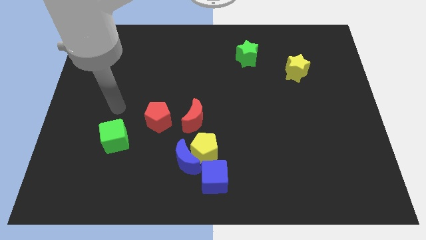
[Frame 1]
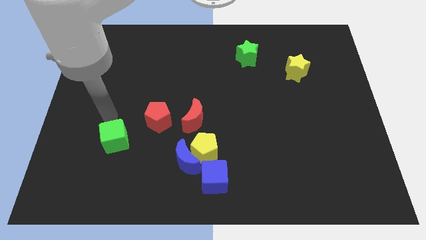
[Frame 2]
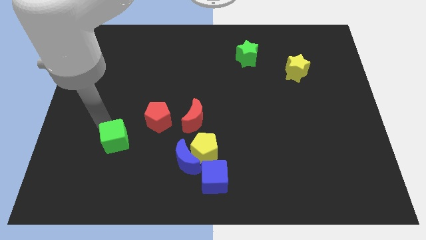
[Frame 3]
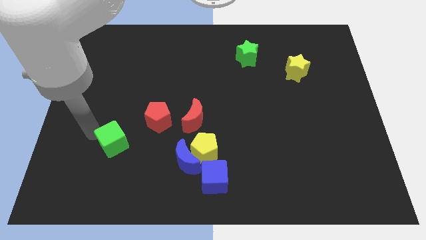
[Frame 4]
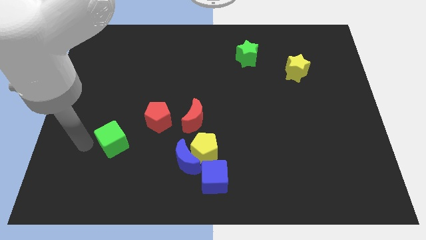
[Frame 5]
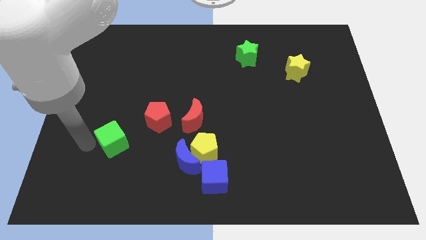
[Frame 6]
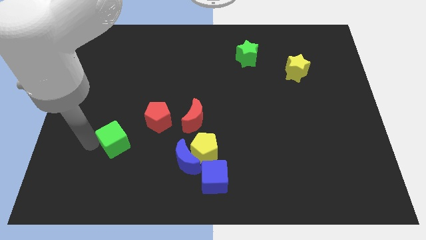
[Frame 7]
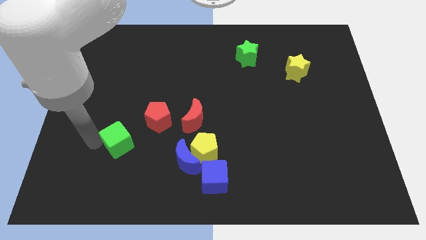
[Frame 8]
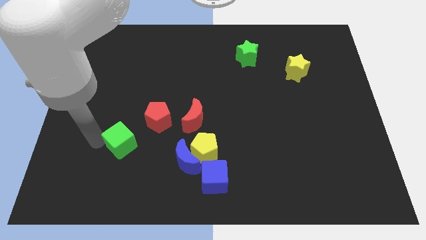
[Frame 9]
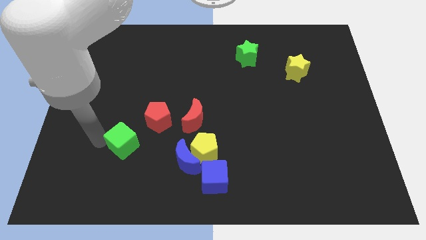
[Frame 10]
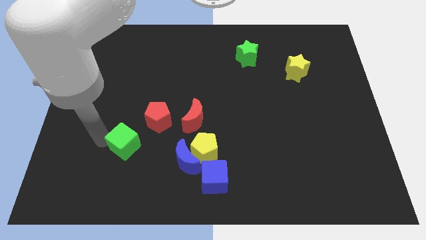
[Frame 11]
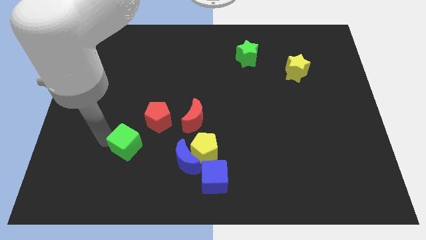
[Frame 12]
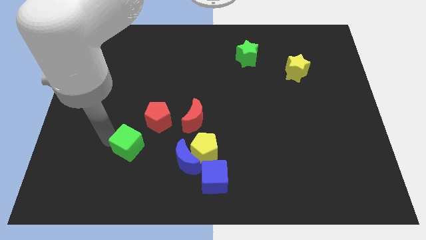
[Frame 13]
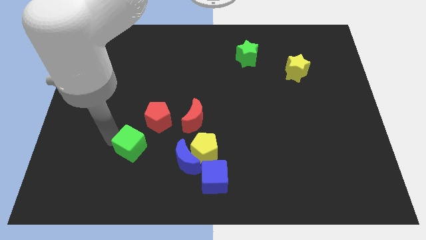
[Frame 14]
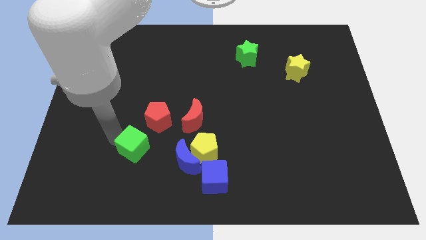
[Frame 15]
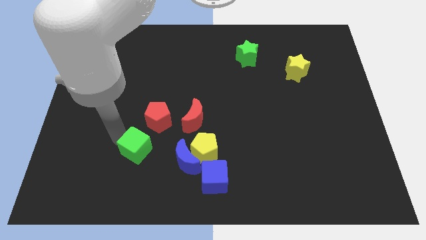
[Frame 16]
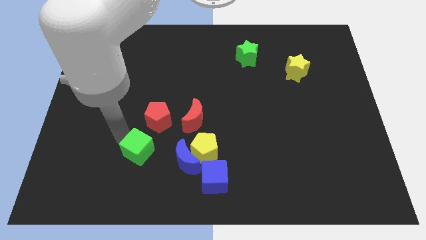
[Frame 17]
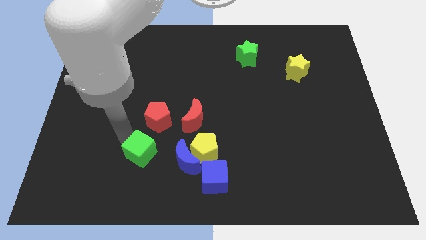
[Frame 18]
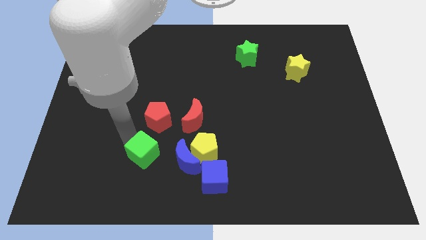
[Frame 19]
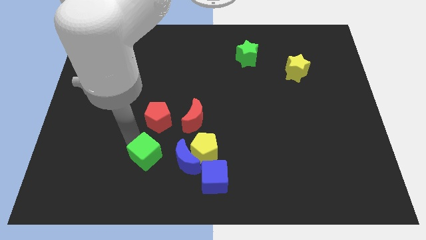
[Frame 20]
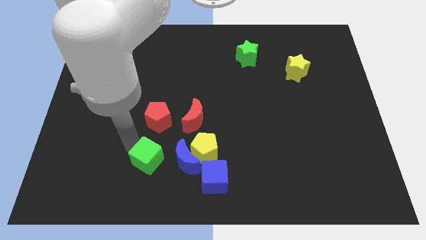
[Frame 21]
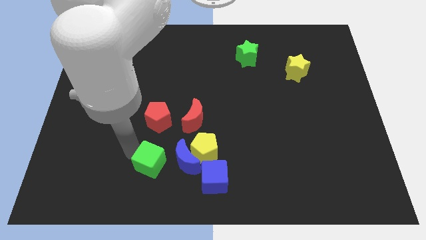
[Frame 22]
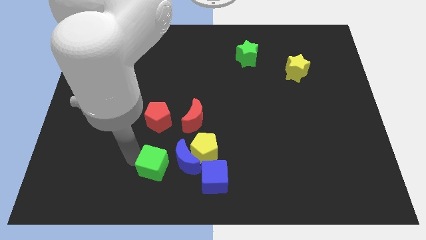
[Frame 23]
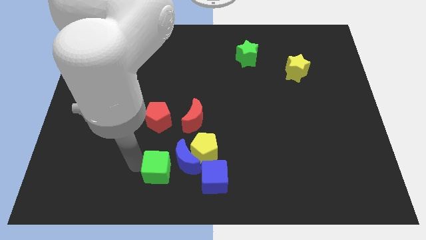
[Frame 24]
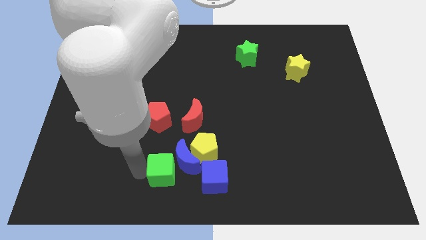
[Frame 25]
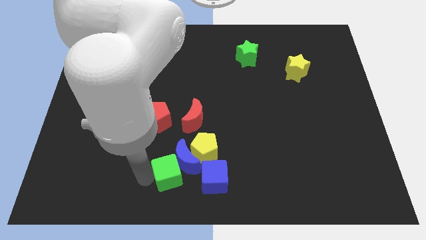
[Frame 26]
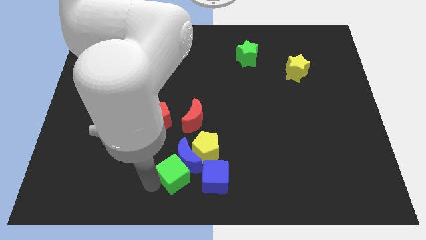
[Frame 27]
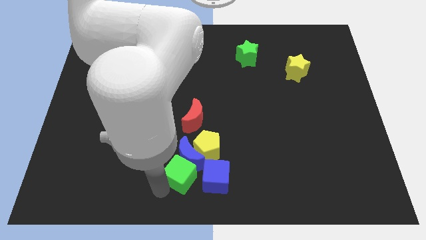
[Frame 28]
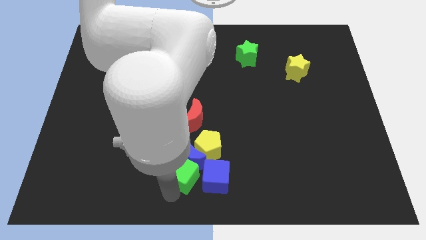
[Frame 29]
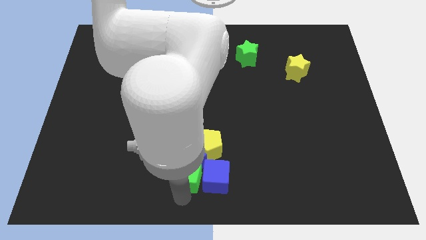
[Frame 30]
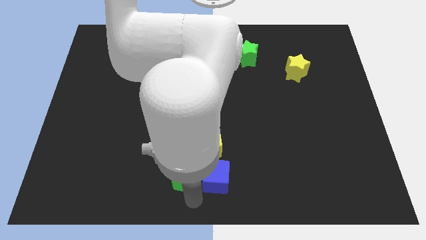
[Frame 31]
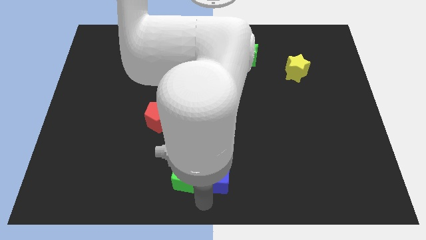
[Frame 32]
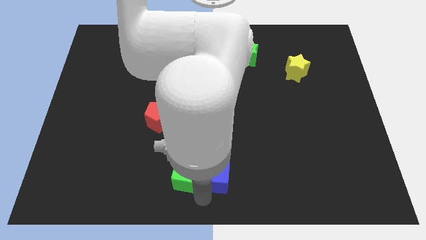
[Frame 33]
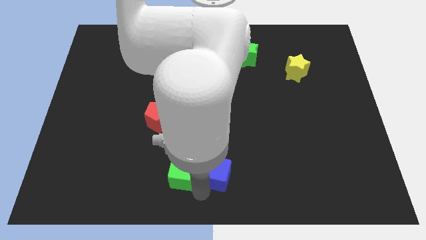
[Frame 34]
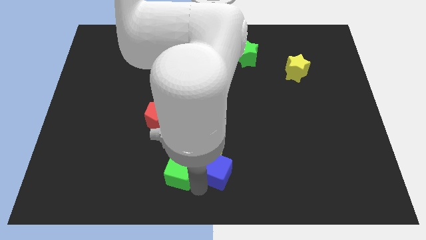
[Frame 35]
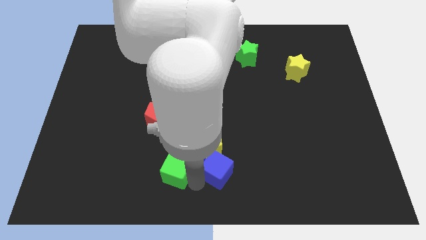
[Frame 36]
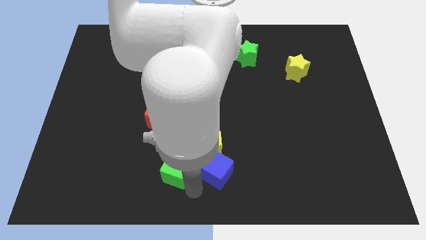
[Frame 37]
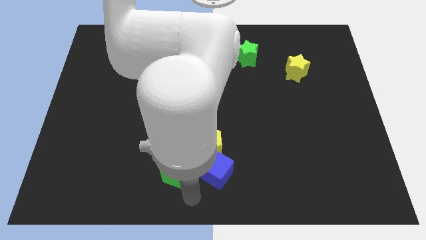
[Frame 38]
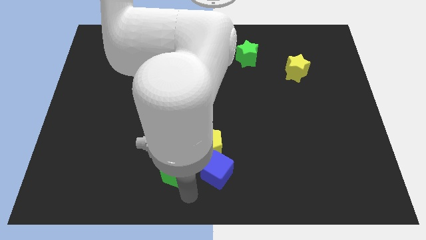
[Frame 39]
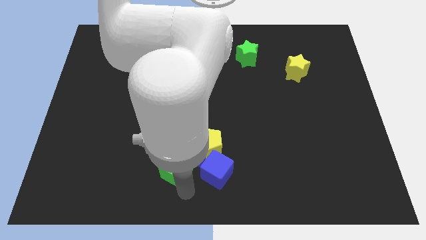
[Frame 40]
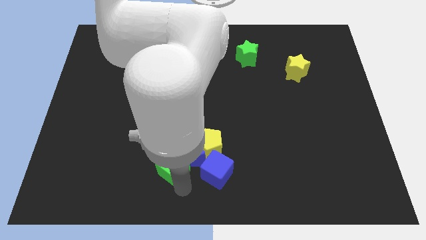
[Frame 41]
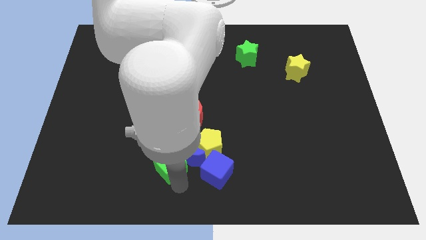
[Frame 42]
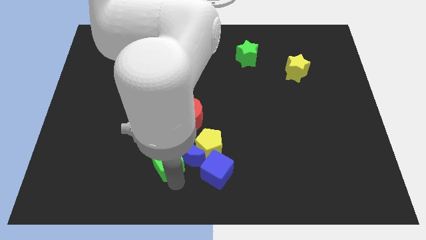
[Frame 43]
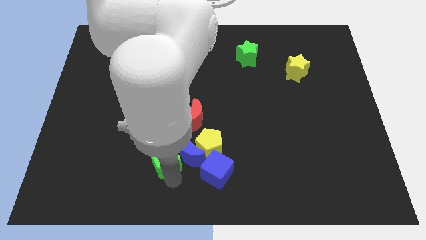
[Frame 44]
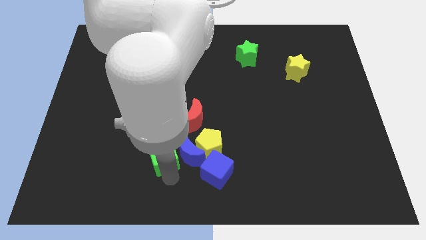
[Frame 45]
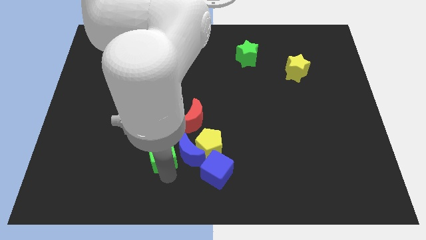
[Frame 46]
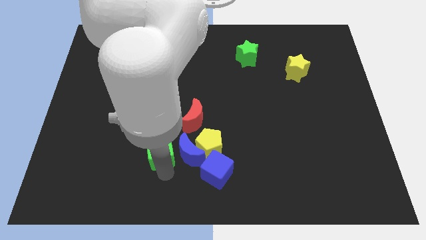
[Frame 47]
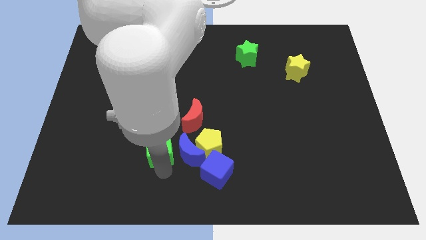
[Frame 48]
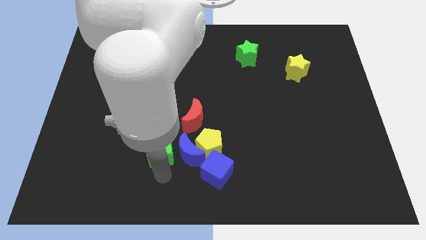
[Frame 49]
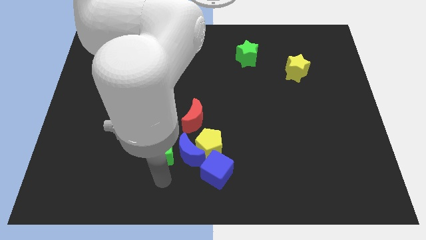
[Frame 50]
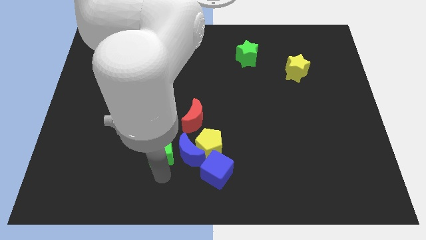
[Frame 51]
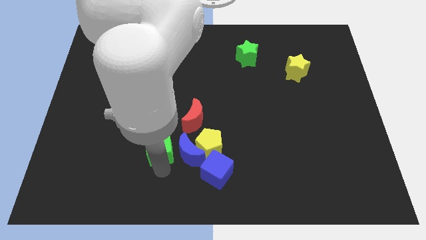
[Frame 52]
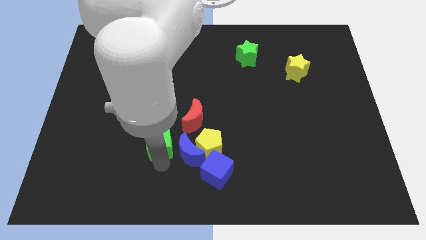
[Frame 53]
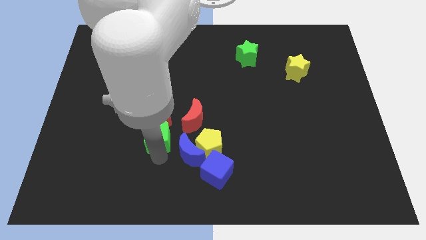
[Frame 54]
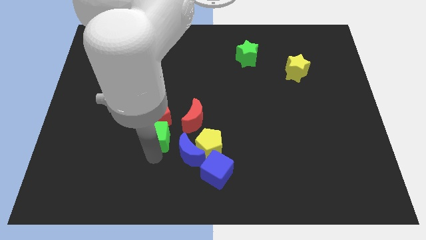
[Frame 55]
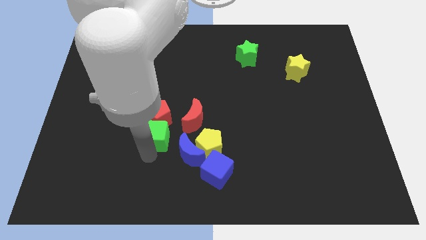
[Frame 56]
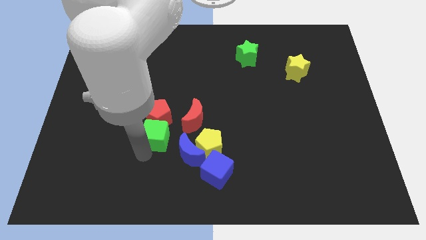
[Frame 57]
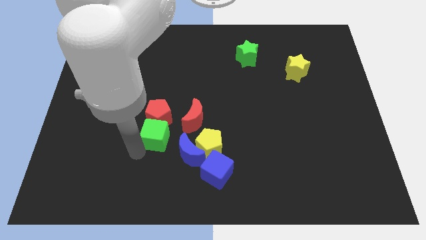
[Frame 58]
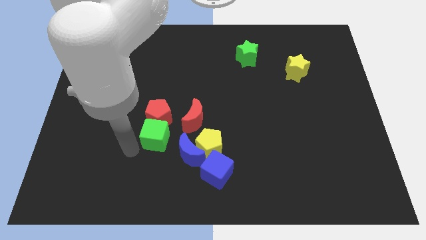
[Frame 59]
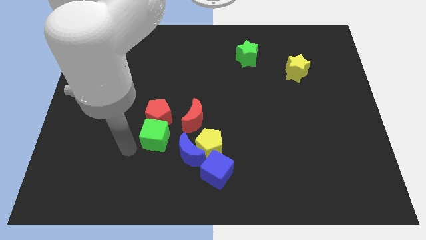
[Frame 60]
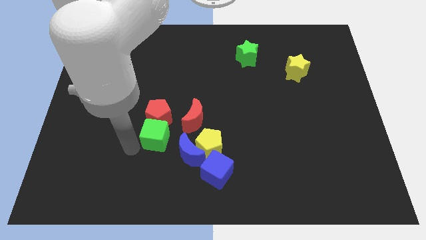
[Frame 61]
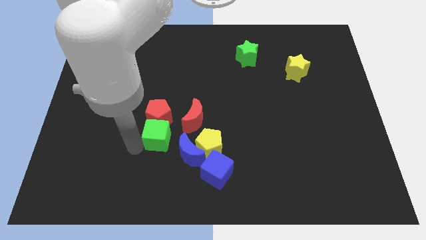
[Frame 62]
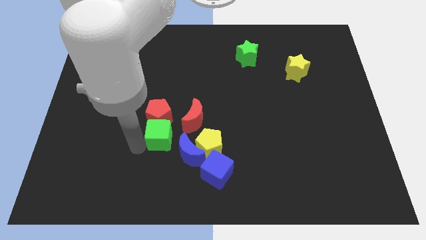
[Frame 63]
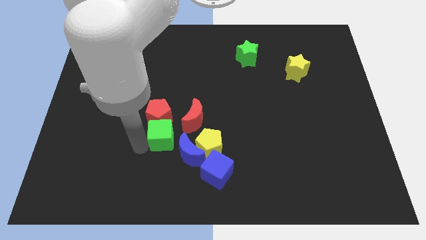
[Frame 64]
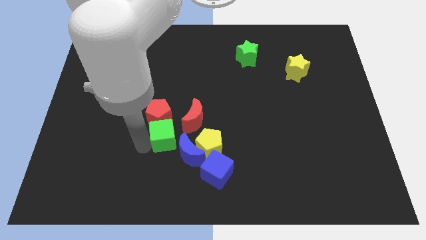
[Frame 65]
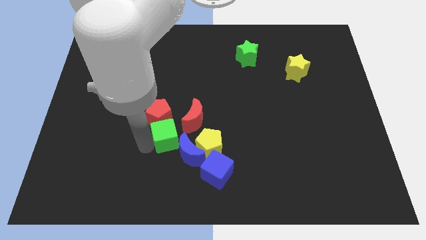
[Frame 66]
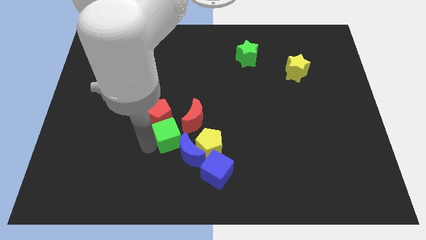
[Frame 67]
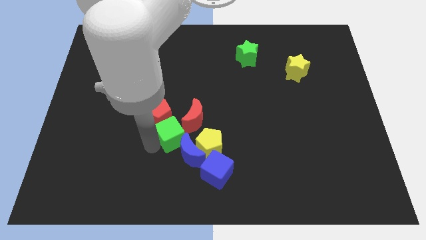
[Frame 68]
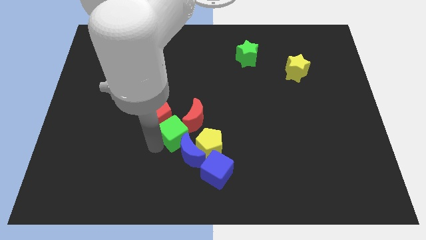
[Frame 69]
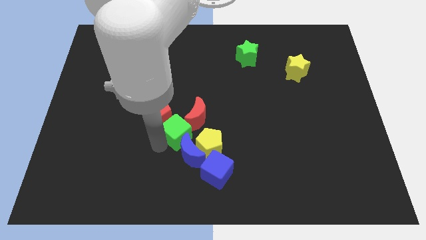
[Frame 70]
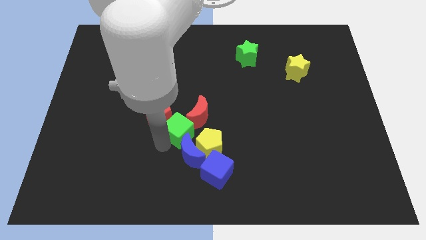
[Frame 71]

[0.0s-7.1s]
push the green cube towards the red moon

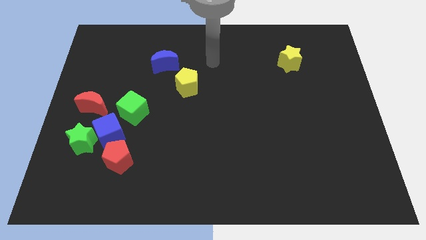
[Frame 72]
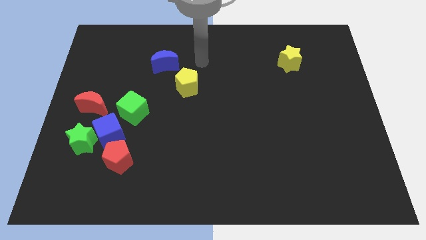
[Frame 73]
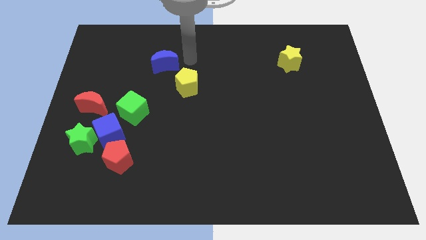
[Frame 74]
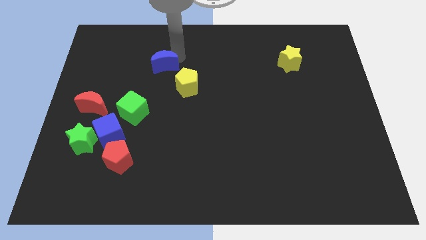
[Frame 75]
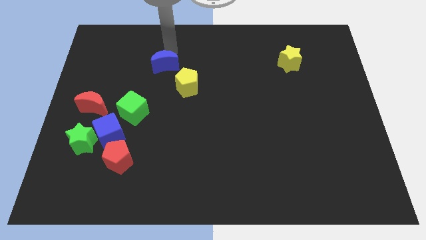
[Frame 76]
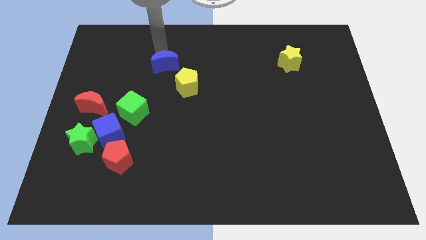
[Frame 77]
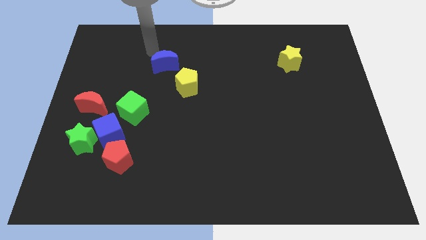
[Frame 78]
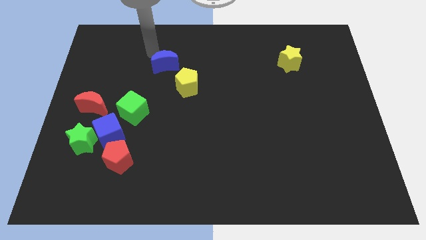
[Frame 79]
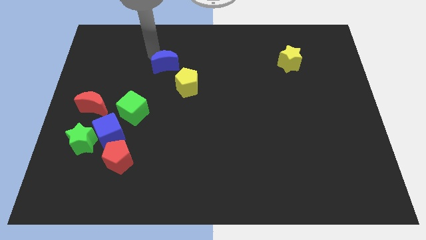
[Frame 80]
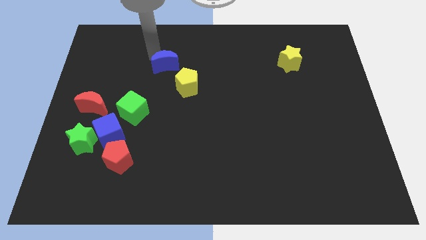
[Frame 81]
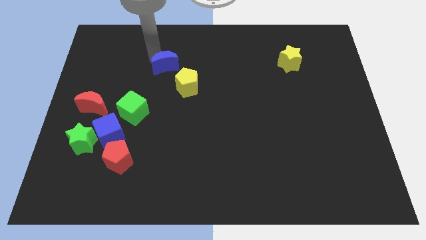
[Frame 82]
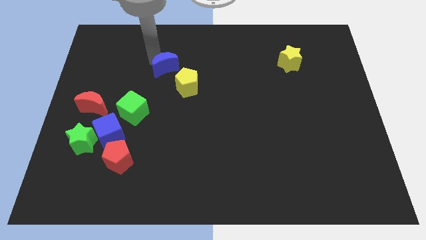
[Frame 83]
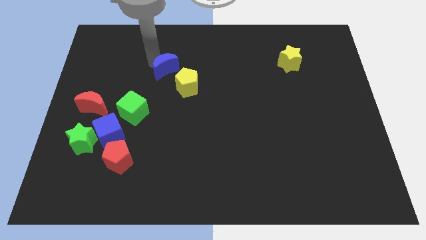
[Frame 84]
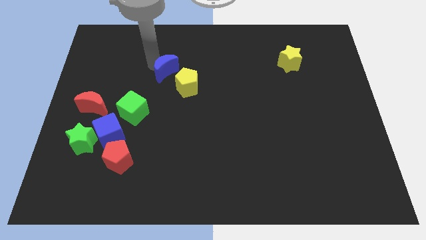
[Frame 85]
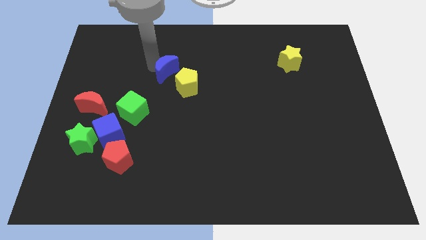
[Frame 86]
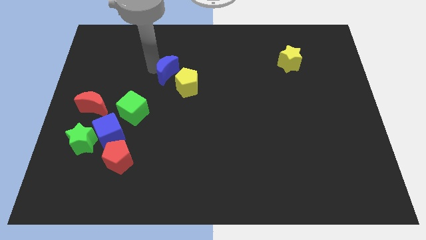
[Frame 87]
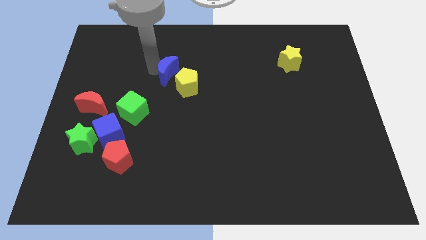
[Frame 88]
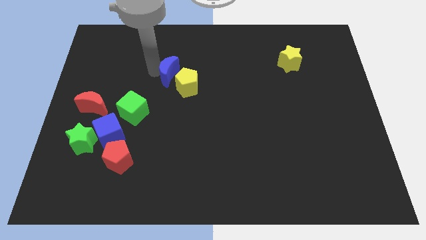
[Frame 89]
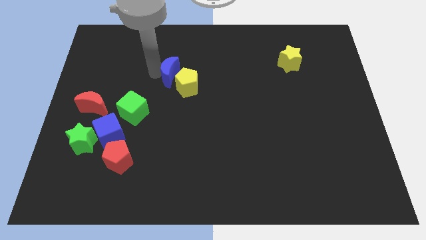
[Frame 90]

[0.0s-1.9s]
move the blue moon next to the yellow pentagon
